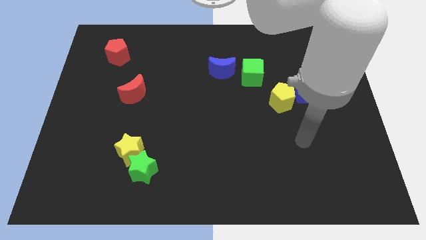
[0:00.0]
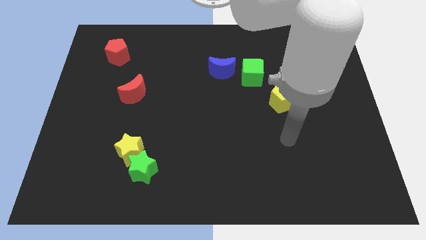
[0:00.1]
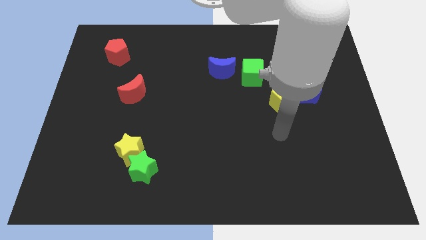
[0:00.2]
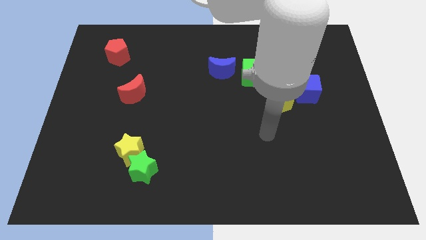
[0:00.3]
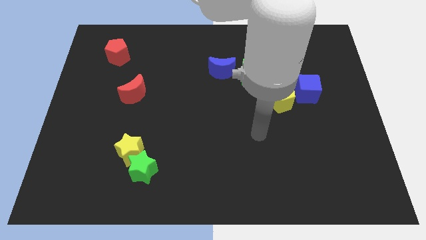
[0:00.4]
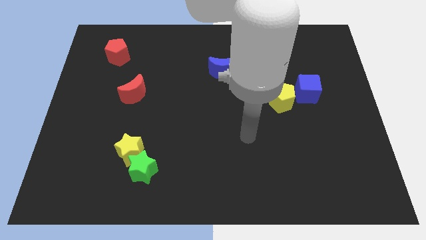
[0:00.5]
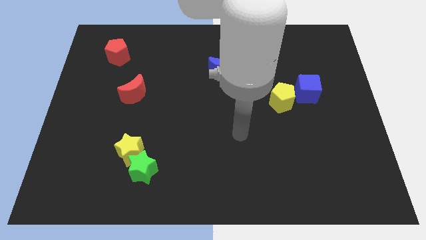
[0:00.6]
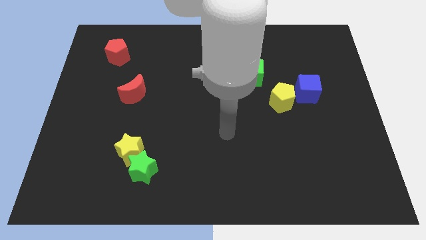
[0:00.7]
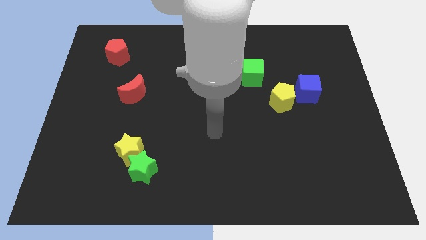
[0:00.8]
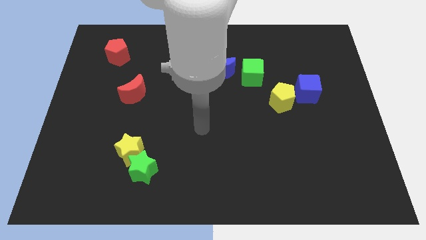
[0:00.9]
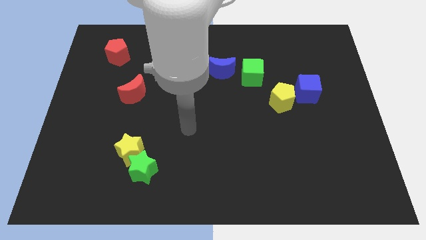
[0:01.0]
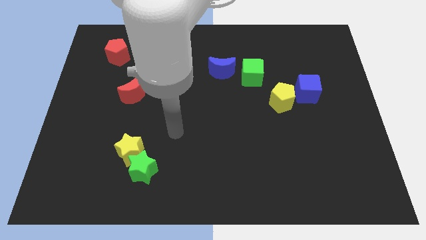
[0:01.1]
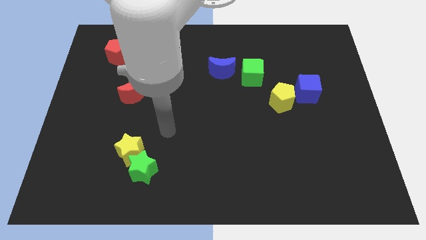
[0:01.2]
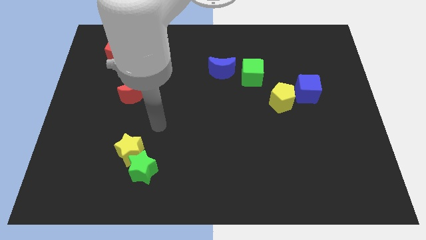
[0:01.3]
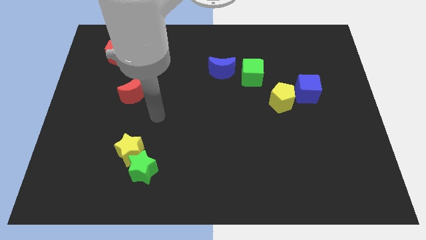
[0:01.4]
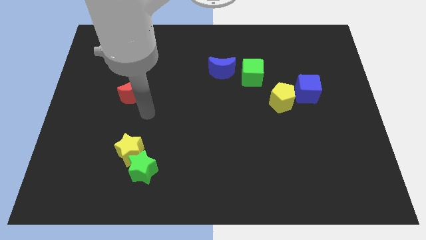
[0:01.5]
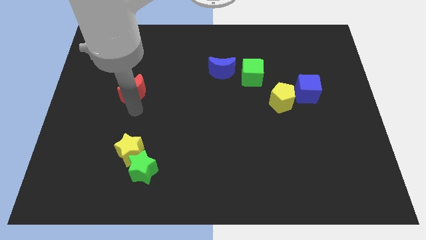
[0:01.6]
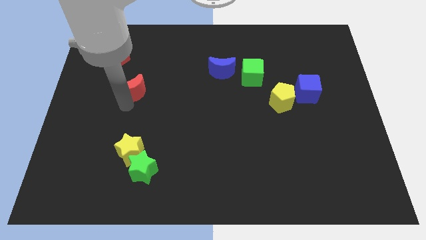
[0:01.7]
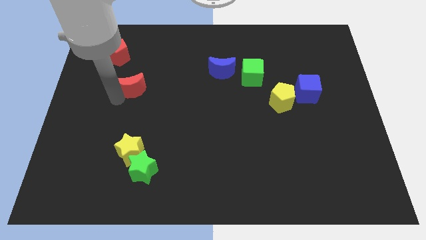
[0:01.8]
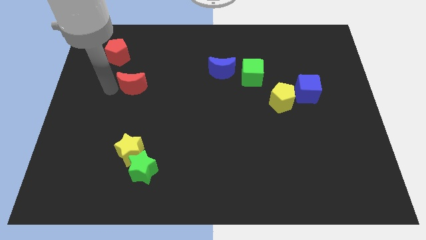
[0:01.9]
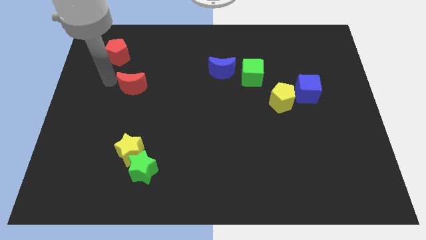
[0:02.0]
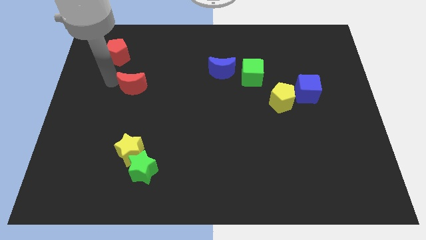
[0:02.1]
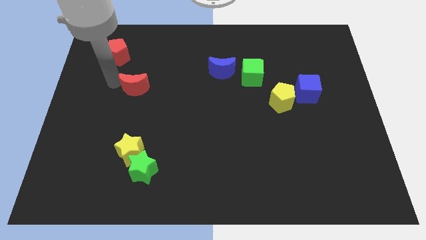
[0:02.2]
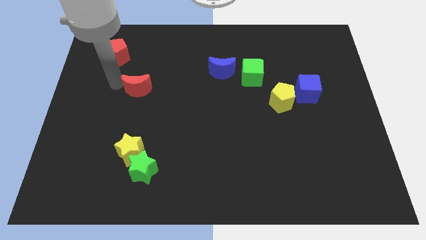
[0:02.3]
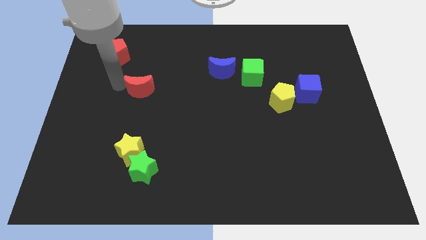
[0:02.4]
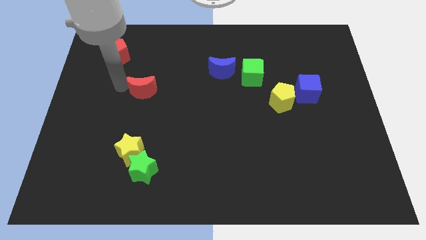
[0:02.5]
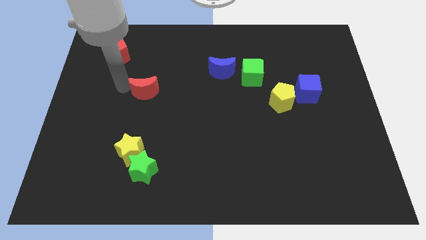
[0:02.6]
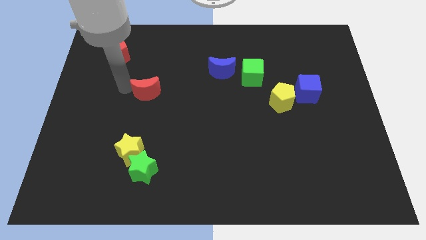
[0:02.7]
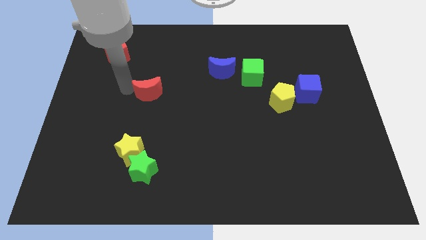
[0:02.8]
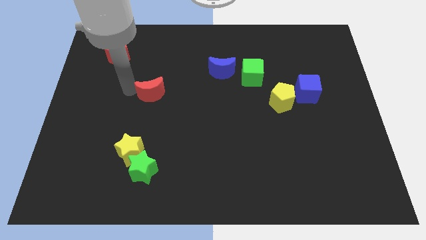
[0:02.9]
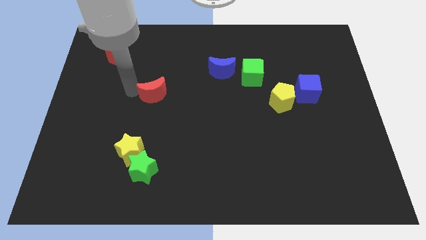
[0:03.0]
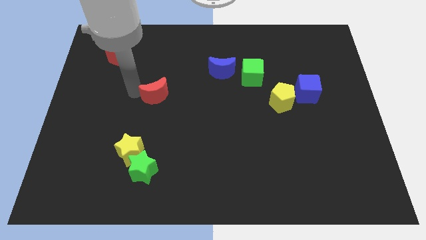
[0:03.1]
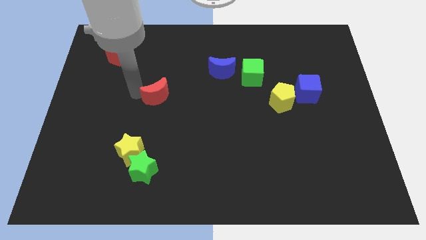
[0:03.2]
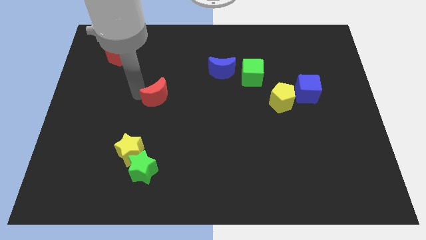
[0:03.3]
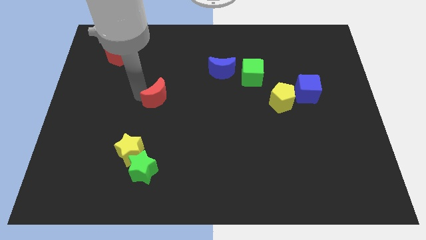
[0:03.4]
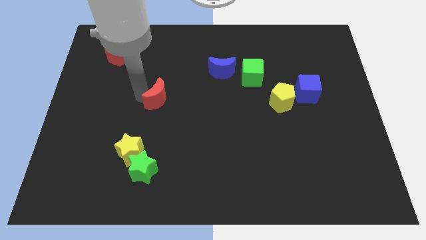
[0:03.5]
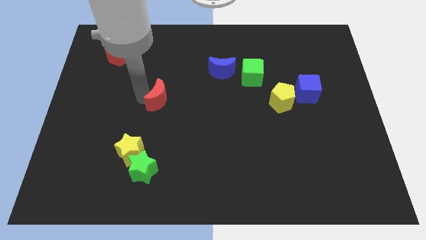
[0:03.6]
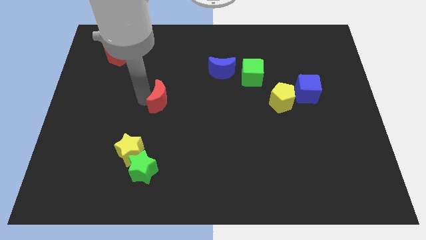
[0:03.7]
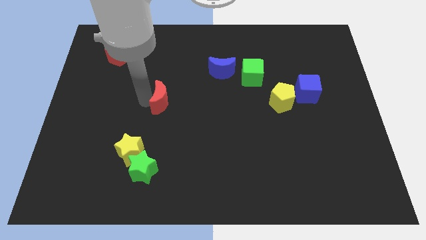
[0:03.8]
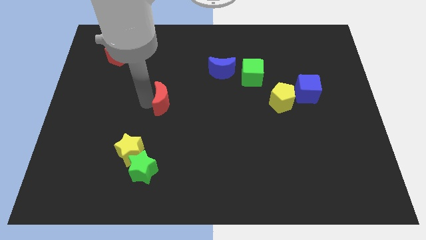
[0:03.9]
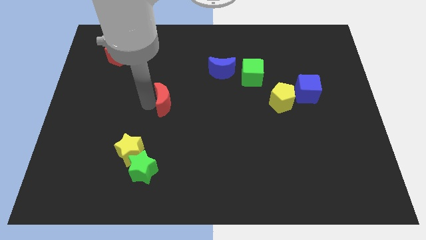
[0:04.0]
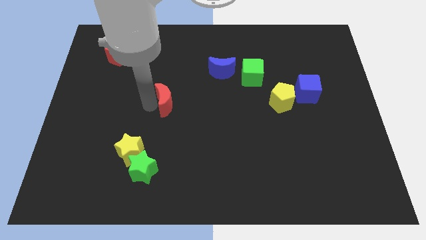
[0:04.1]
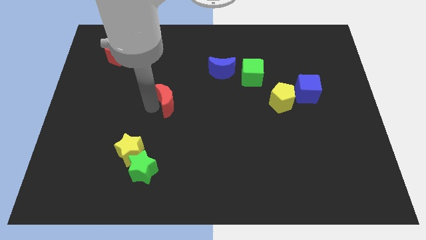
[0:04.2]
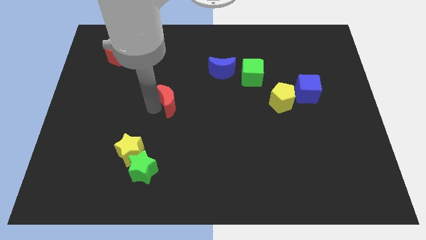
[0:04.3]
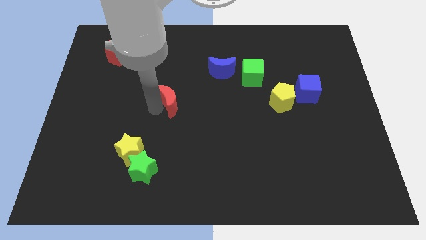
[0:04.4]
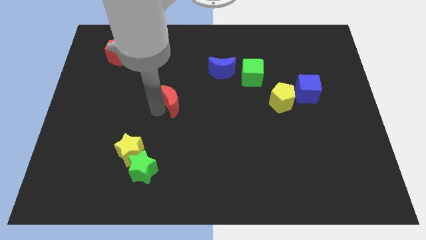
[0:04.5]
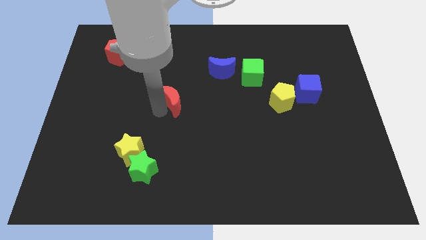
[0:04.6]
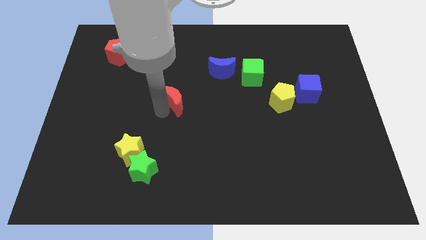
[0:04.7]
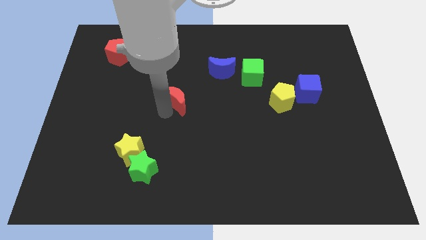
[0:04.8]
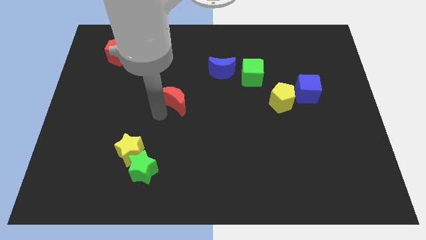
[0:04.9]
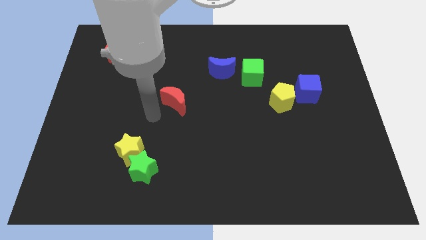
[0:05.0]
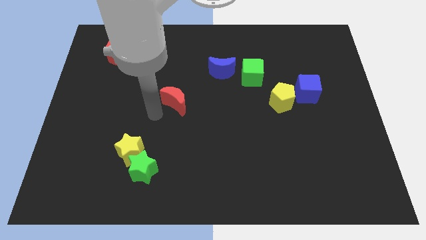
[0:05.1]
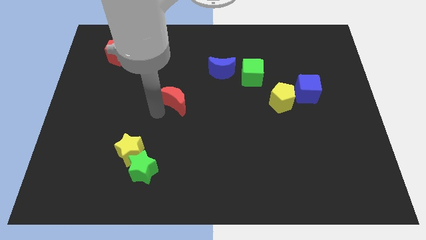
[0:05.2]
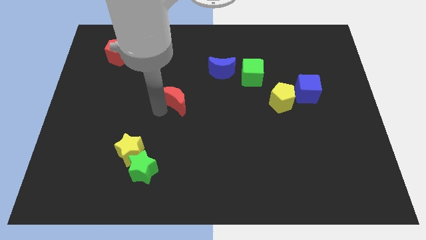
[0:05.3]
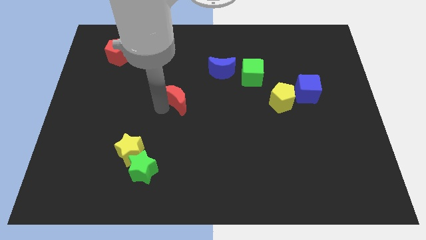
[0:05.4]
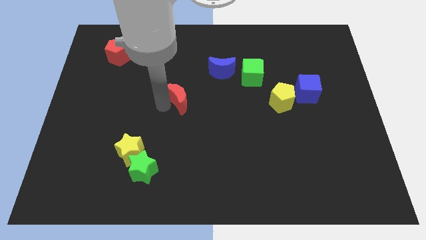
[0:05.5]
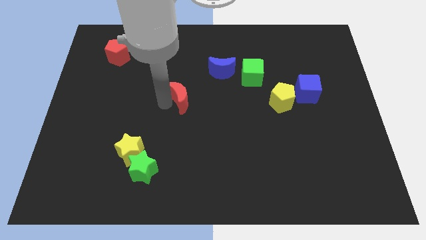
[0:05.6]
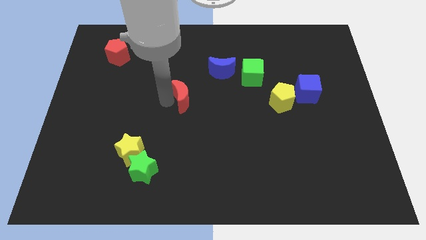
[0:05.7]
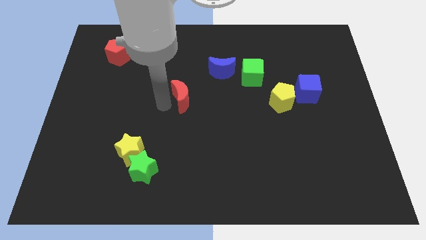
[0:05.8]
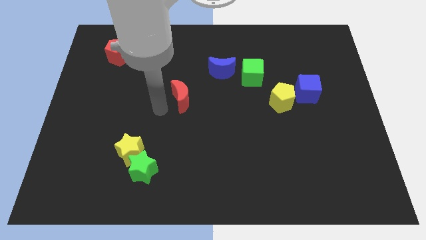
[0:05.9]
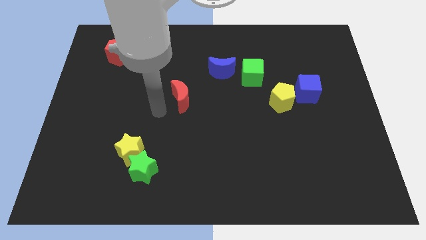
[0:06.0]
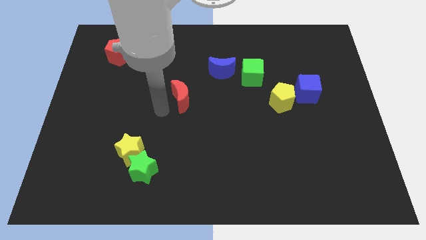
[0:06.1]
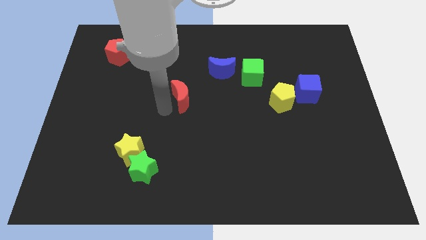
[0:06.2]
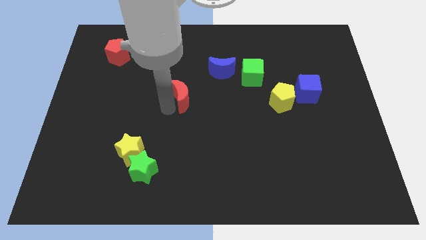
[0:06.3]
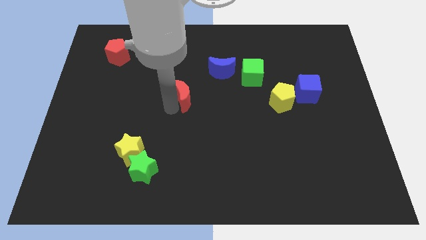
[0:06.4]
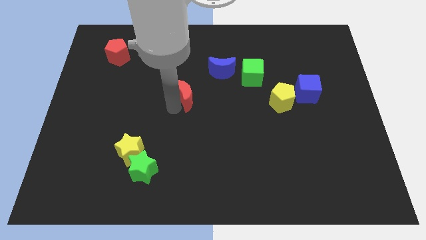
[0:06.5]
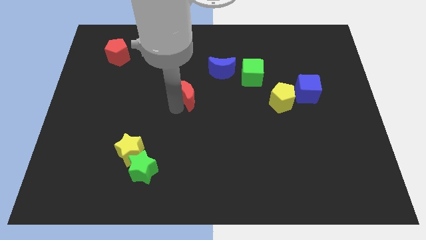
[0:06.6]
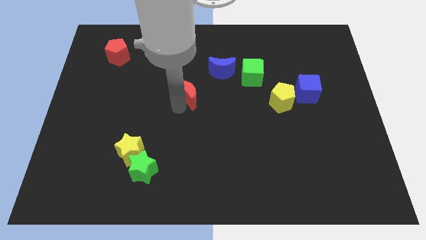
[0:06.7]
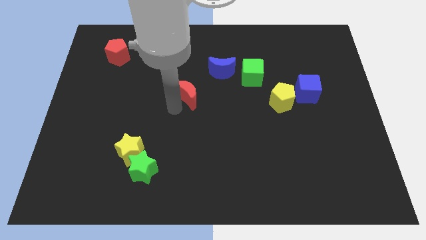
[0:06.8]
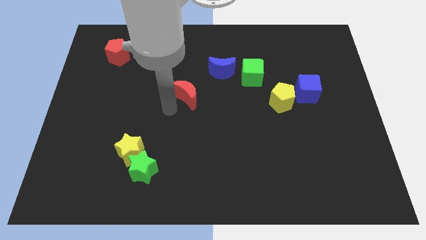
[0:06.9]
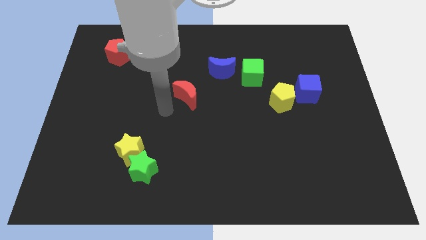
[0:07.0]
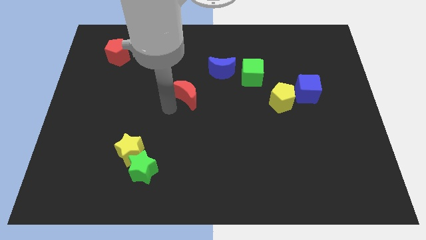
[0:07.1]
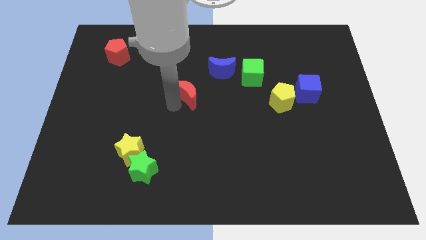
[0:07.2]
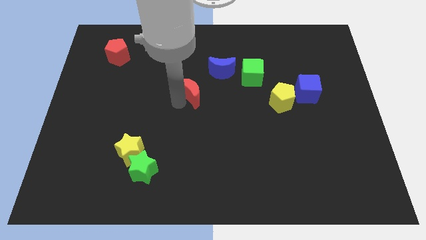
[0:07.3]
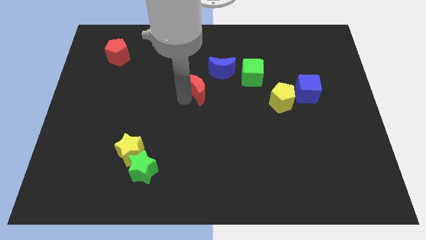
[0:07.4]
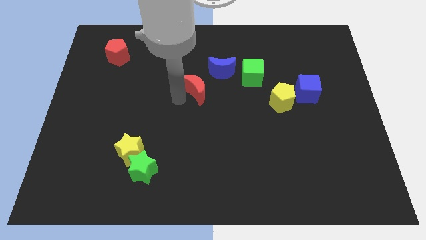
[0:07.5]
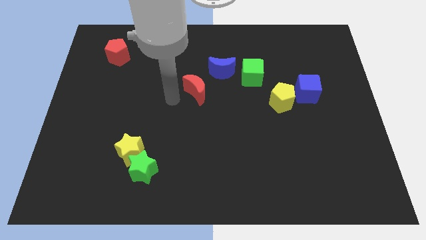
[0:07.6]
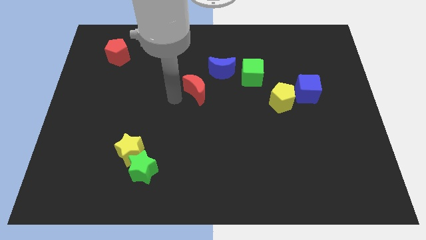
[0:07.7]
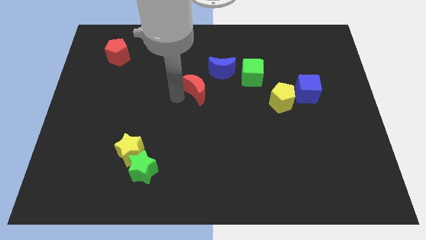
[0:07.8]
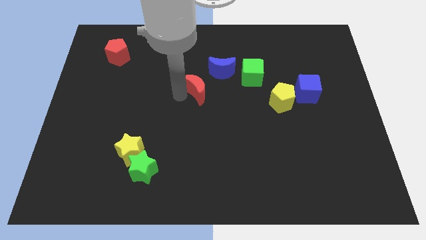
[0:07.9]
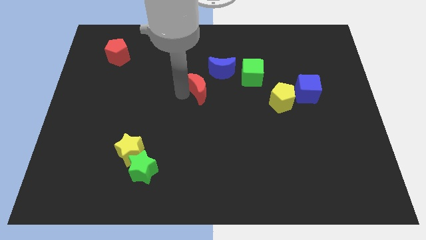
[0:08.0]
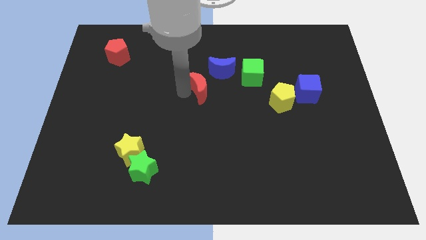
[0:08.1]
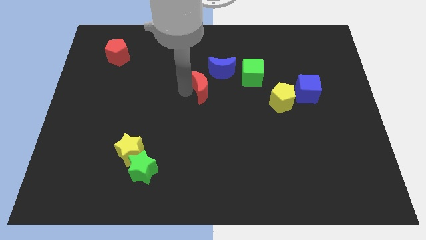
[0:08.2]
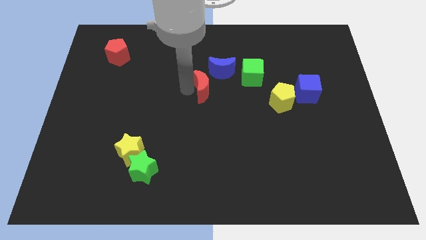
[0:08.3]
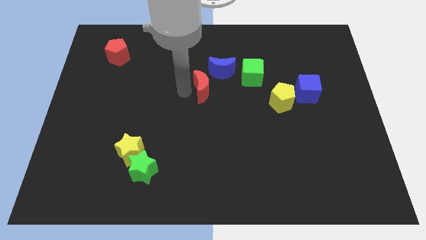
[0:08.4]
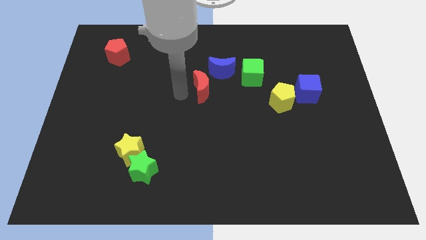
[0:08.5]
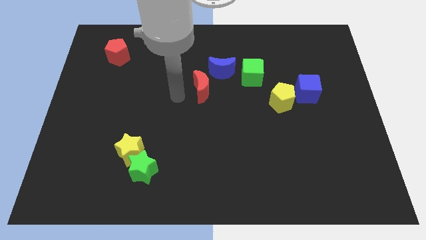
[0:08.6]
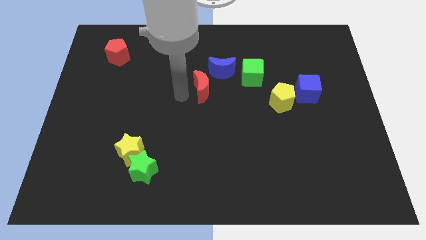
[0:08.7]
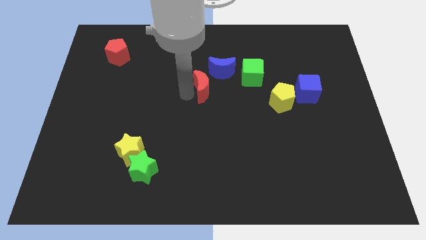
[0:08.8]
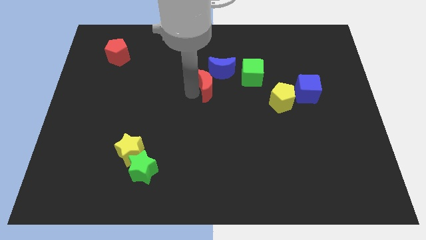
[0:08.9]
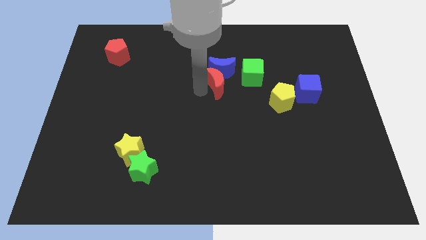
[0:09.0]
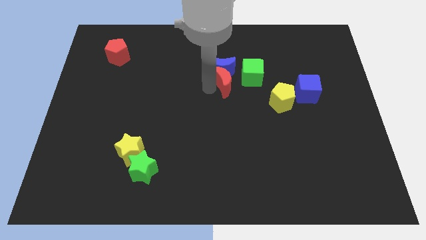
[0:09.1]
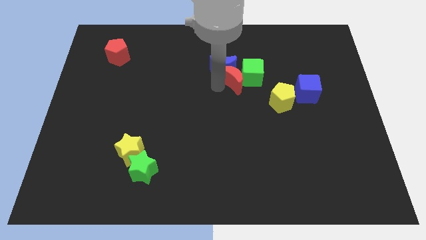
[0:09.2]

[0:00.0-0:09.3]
move the red moon close to the green cube
